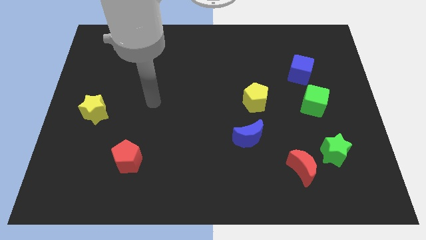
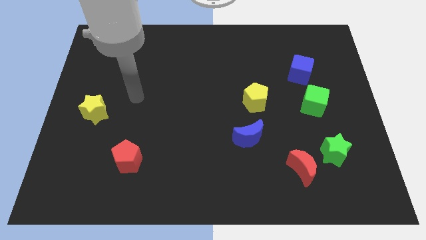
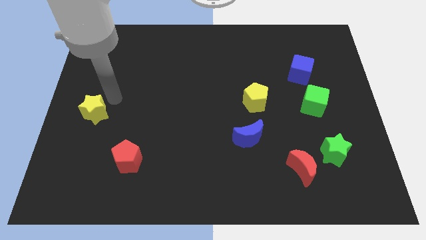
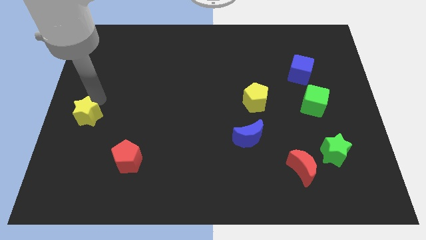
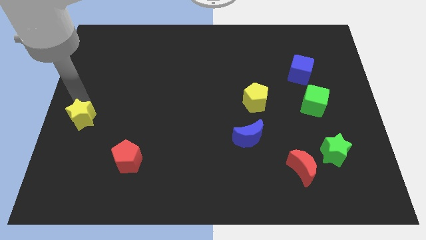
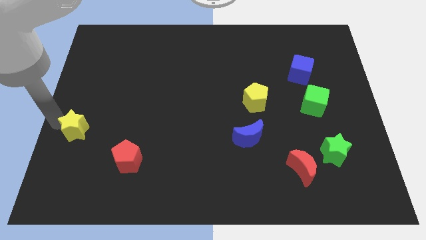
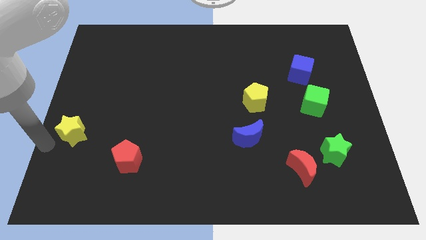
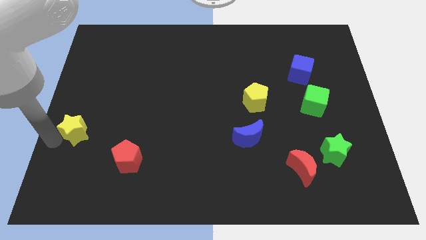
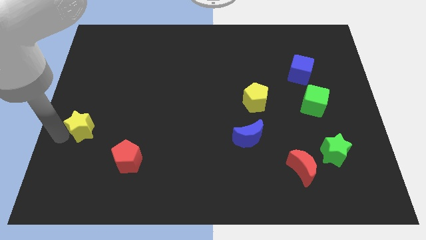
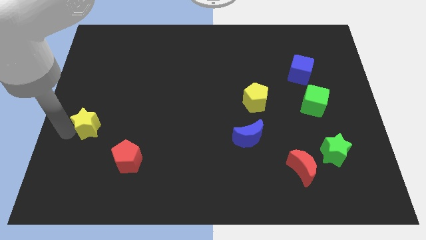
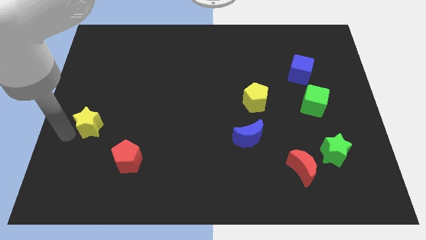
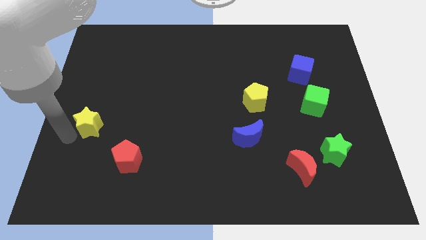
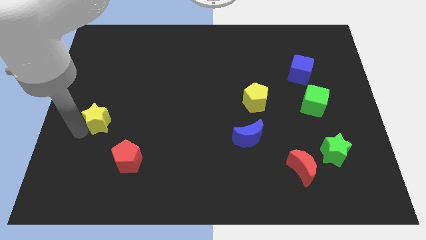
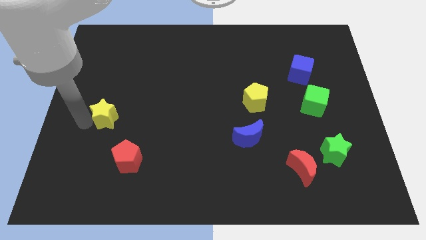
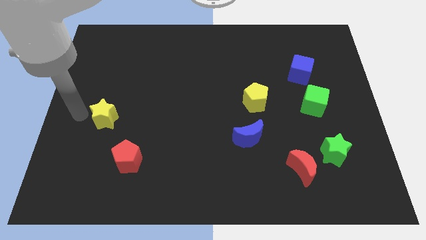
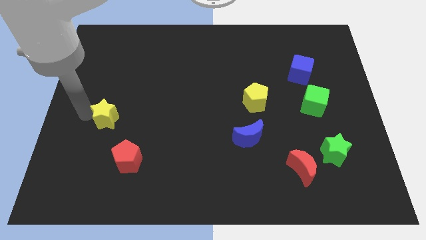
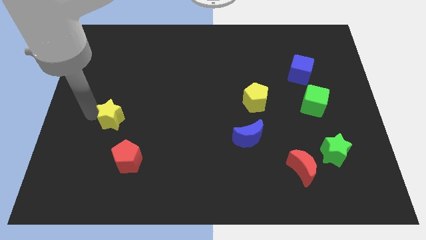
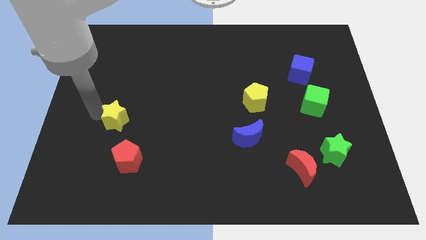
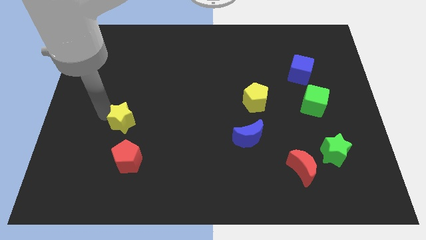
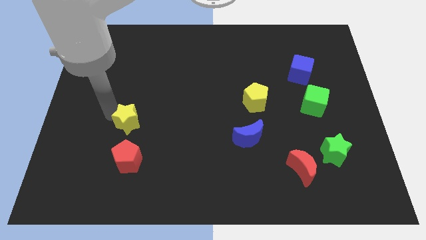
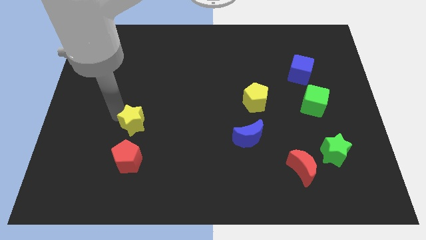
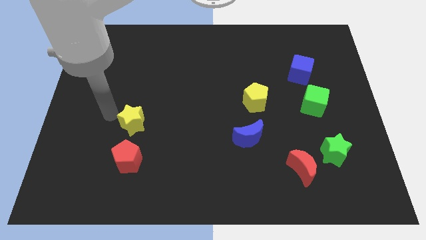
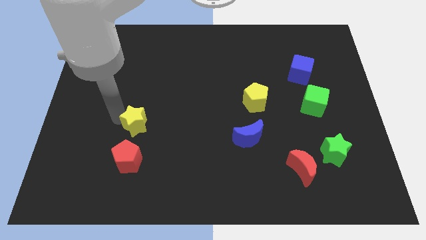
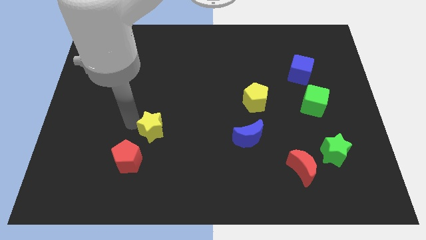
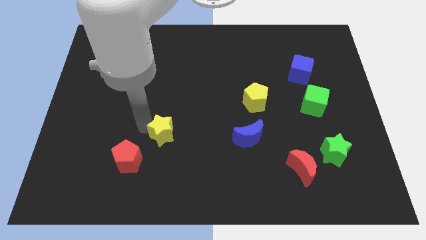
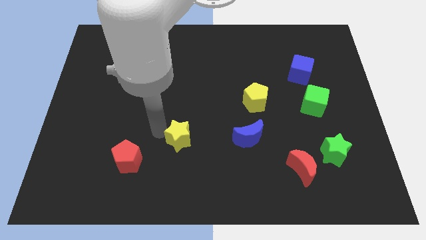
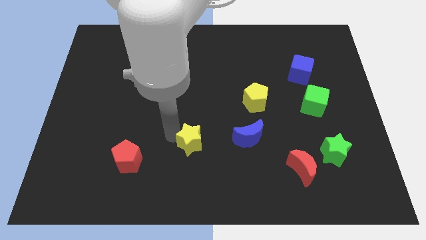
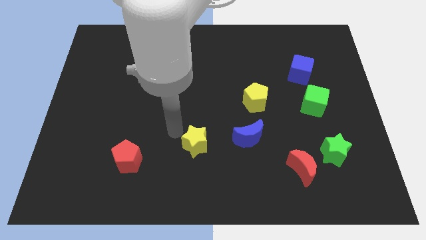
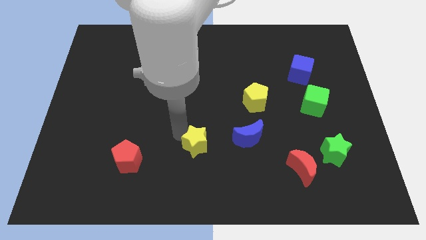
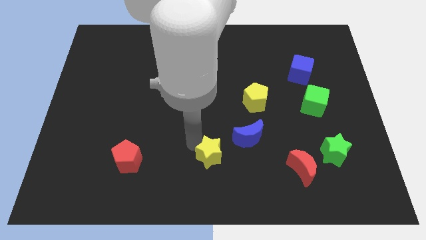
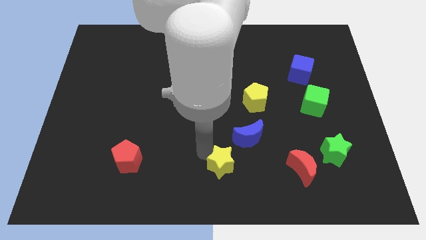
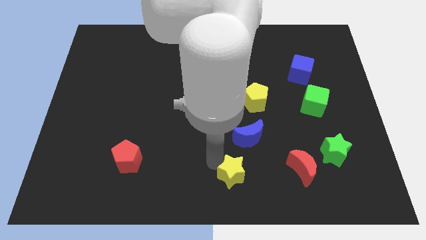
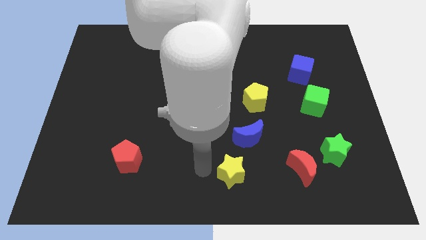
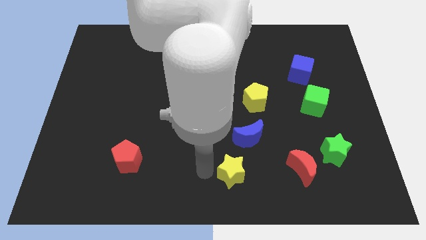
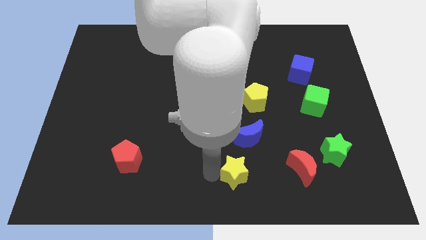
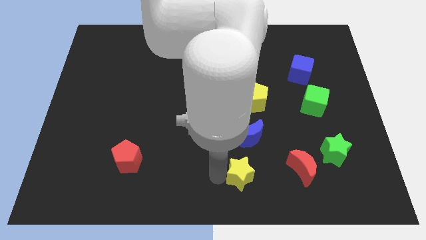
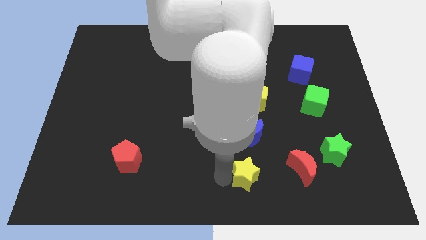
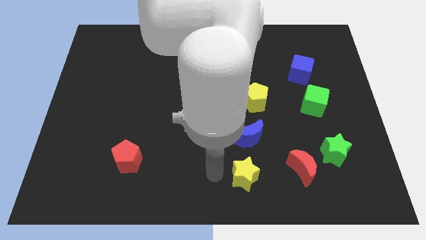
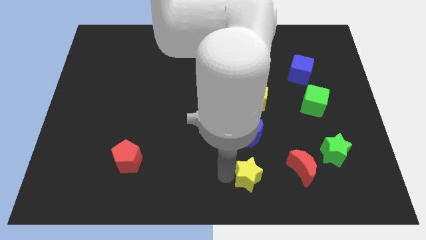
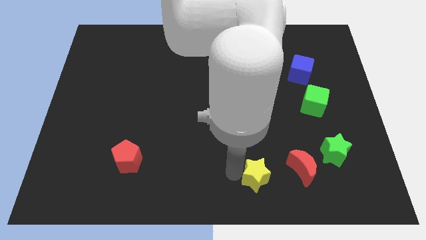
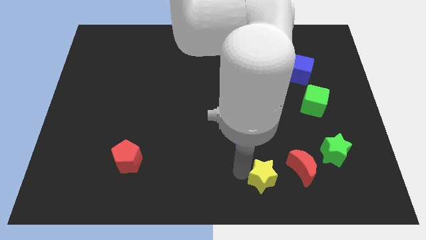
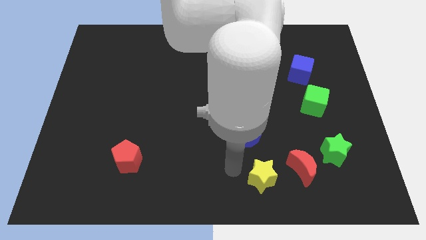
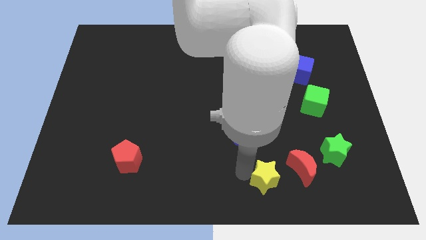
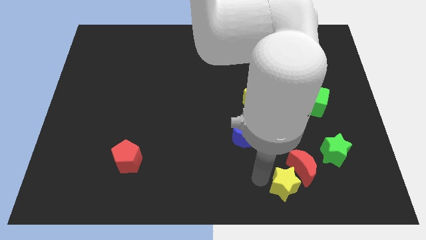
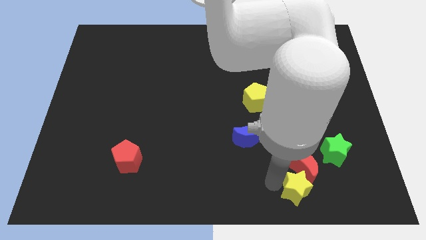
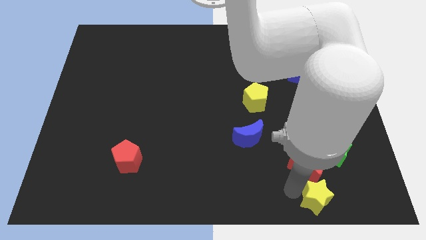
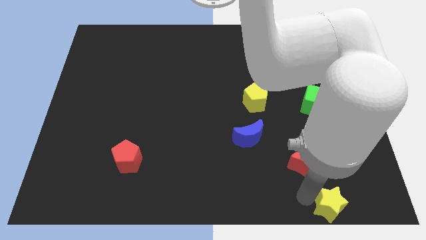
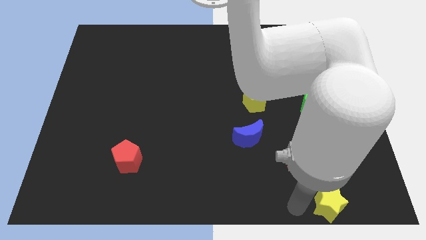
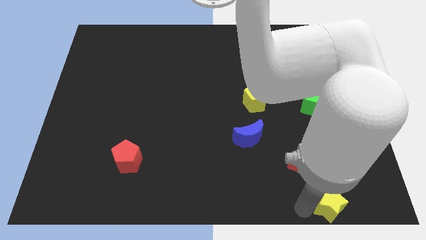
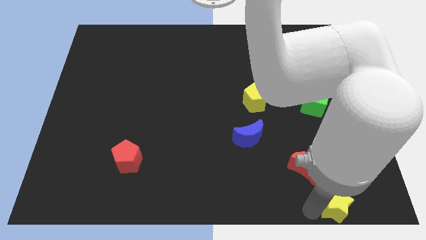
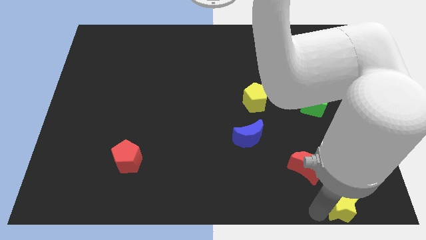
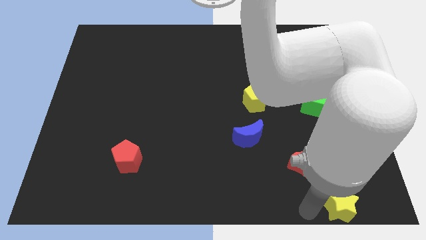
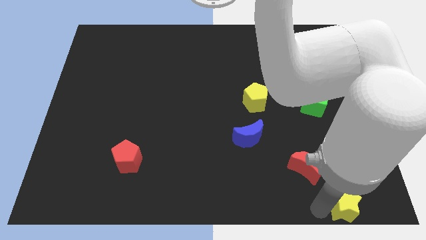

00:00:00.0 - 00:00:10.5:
put the yellow star to the lower right corner

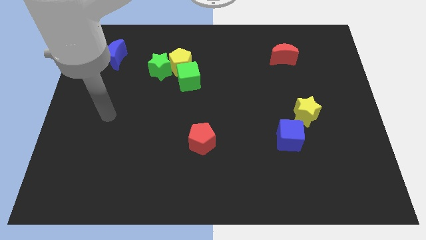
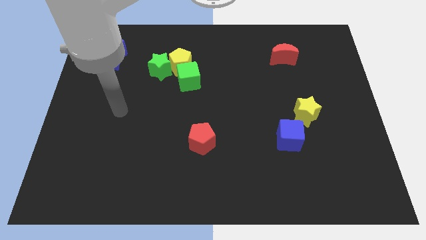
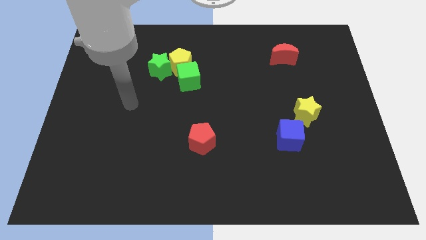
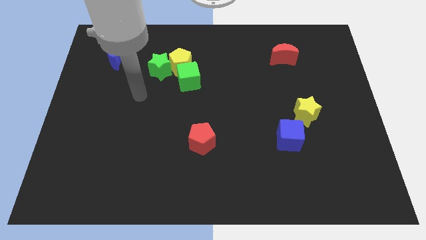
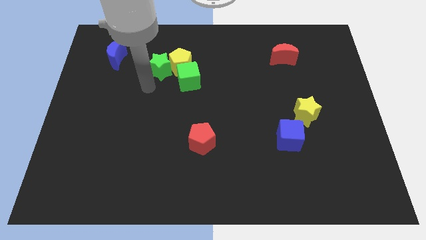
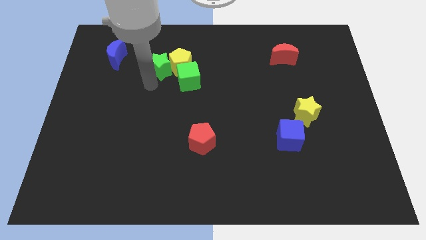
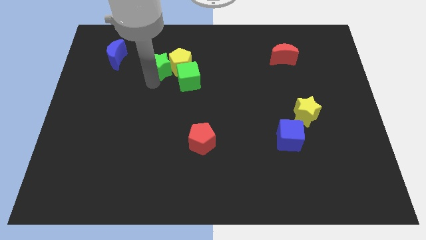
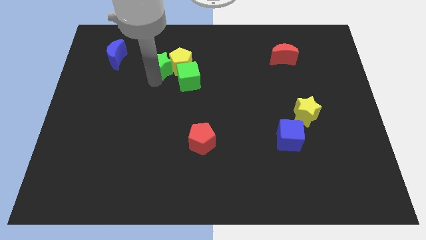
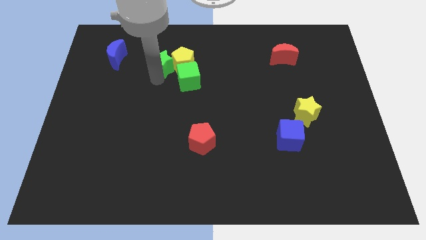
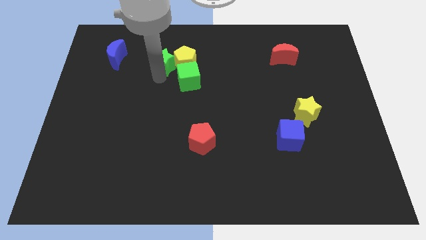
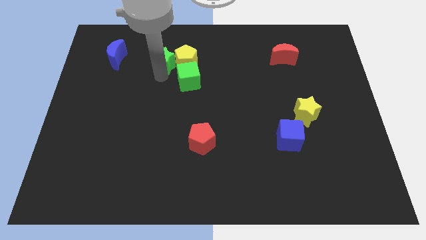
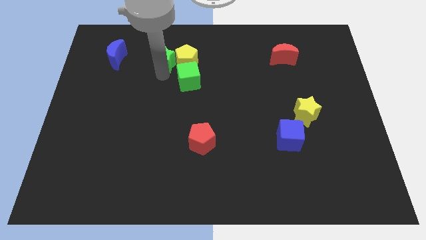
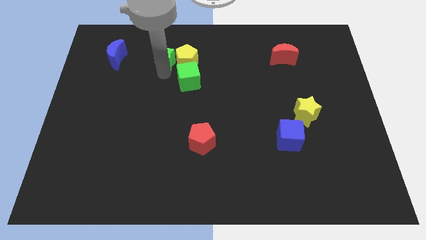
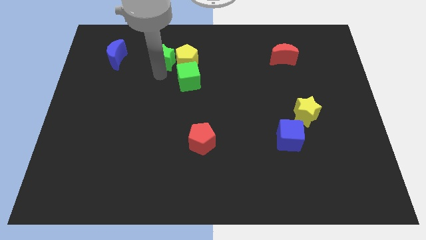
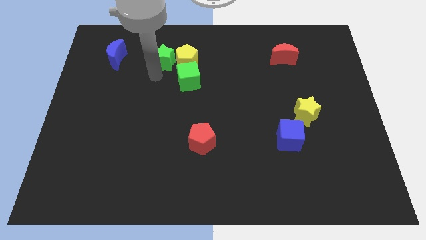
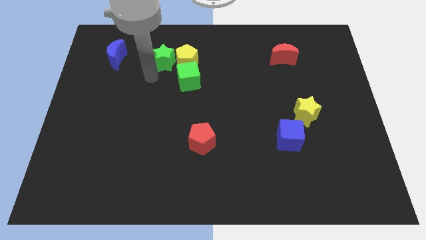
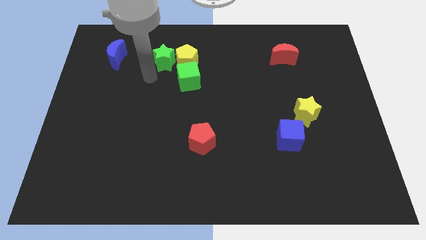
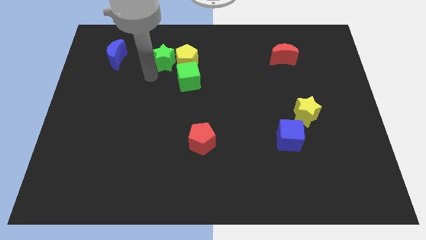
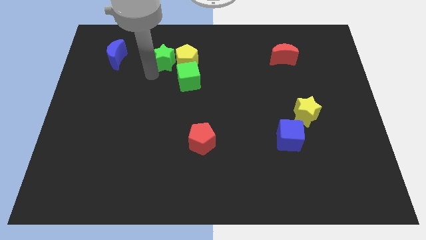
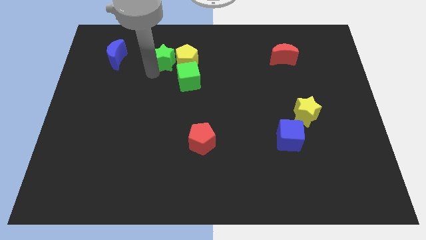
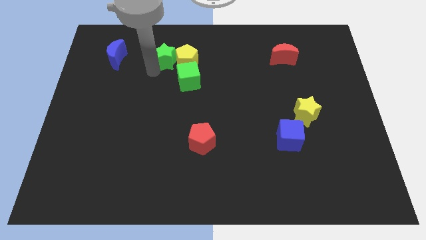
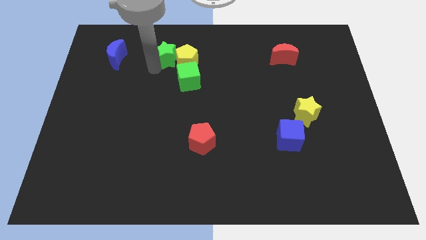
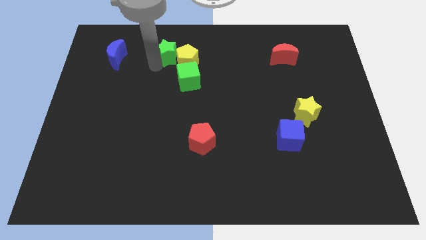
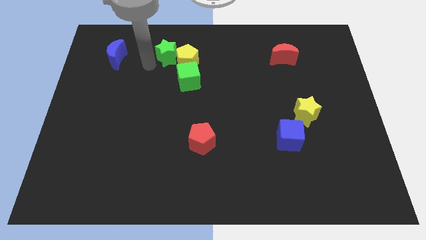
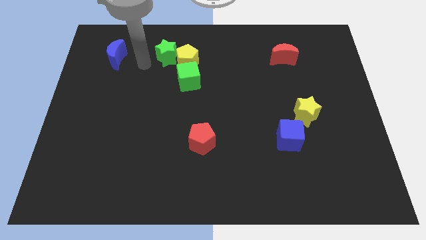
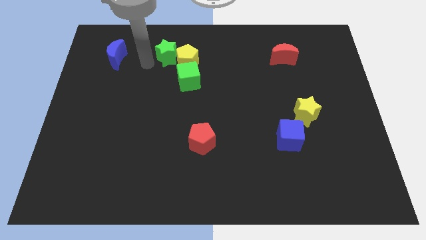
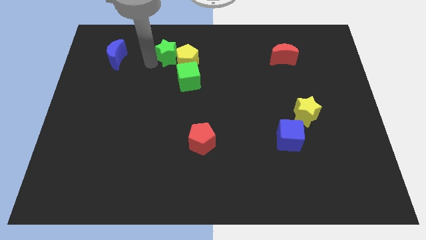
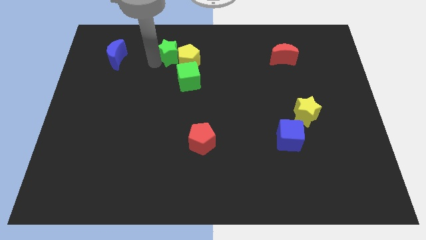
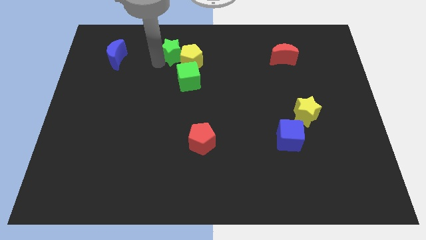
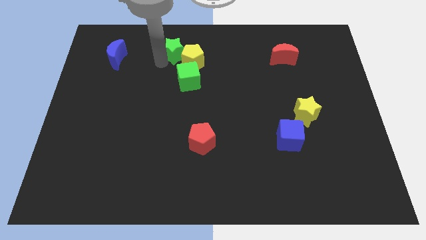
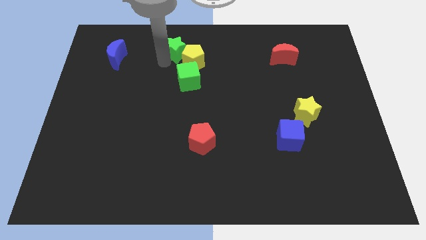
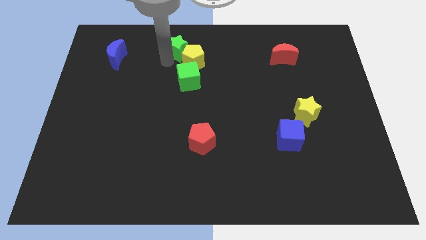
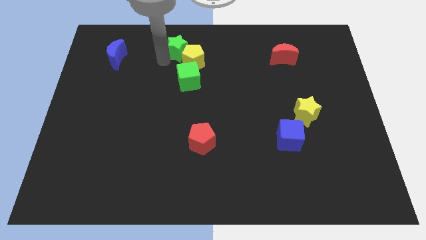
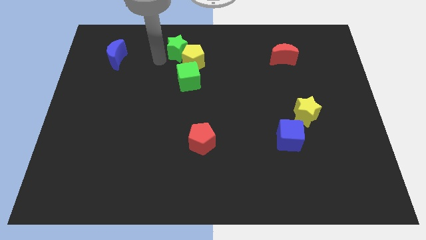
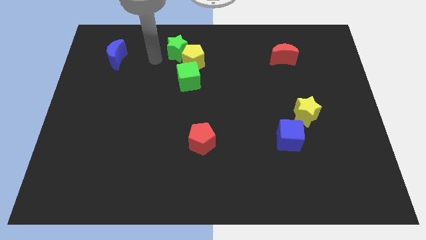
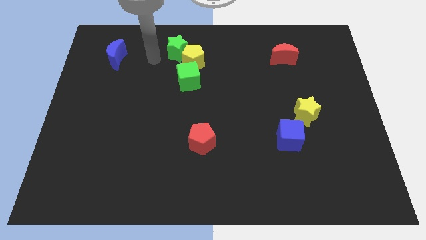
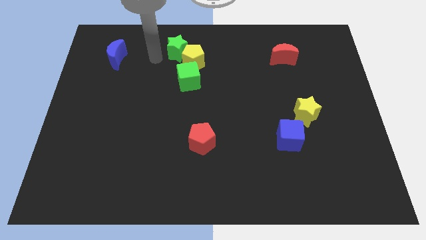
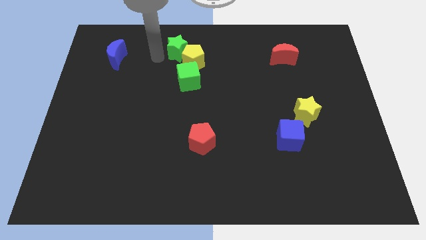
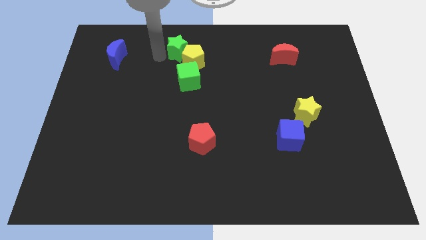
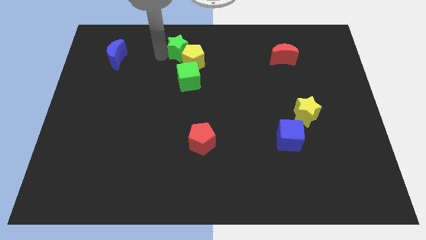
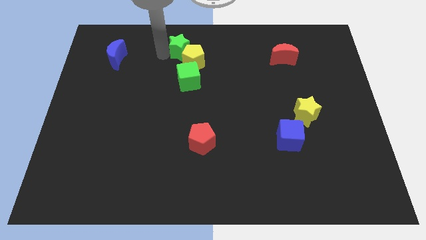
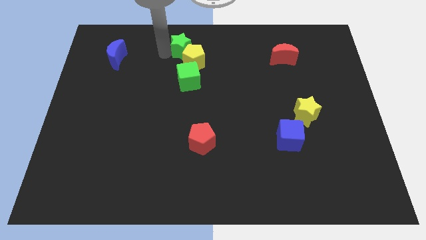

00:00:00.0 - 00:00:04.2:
slide the green star to the top side
